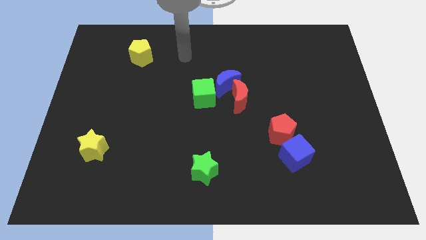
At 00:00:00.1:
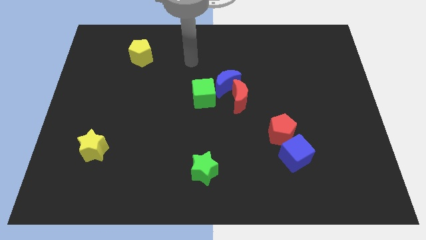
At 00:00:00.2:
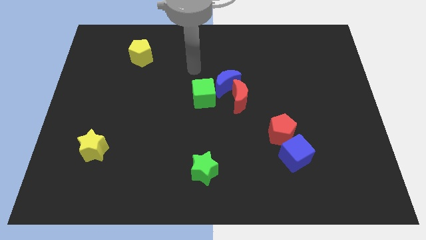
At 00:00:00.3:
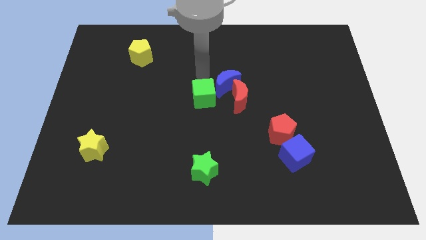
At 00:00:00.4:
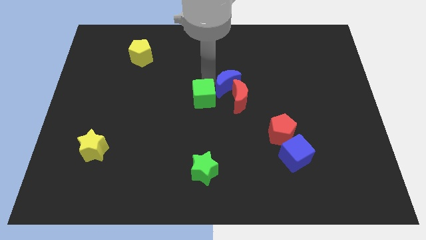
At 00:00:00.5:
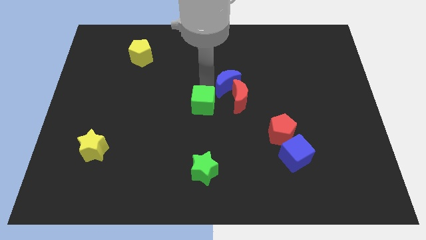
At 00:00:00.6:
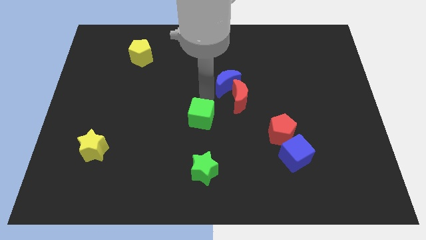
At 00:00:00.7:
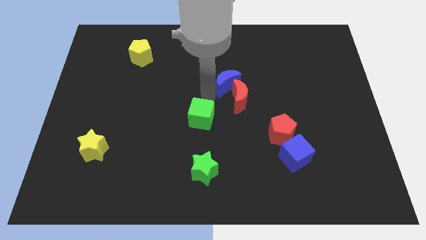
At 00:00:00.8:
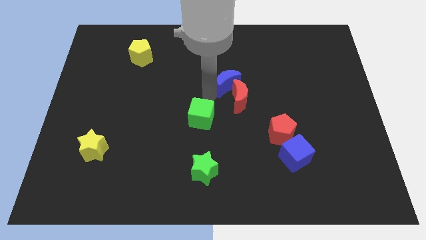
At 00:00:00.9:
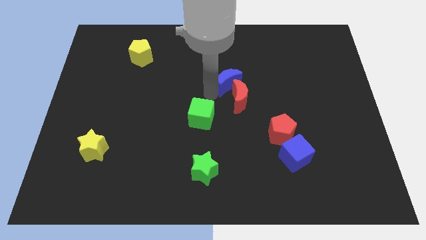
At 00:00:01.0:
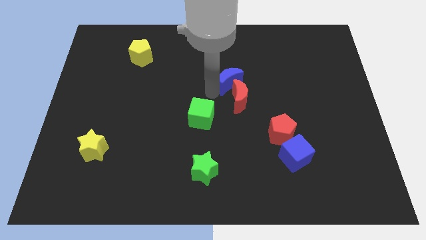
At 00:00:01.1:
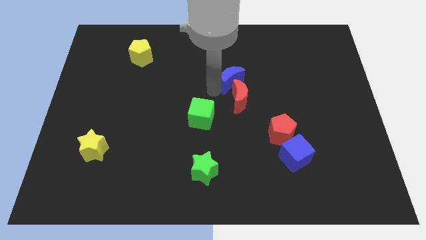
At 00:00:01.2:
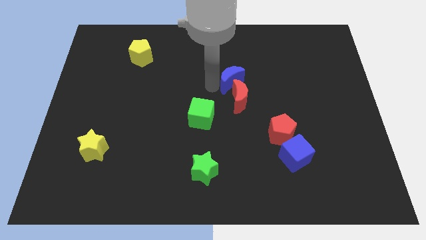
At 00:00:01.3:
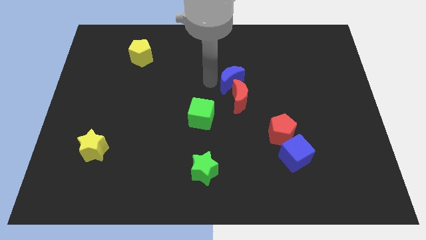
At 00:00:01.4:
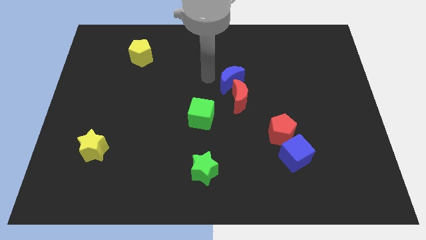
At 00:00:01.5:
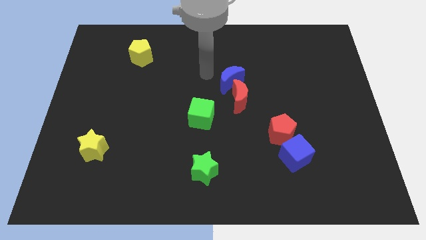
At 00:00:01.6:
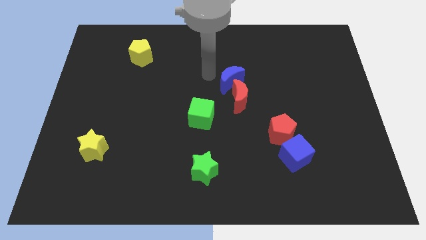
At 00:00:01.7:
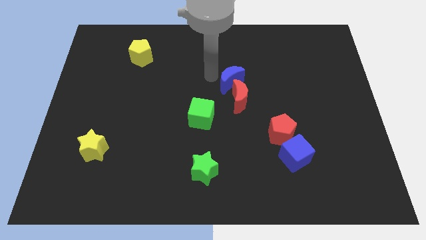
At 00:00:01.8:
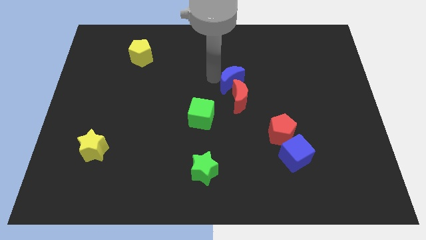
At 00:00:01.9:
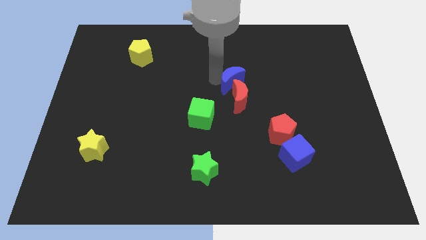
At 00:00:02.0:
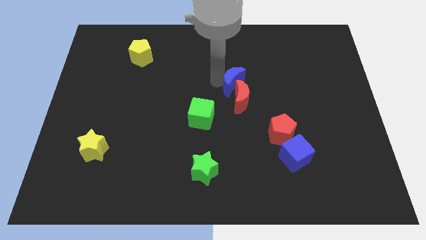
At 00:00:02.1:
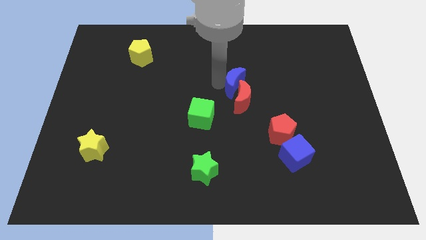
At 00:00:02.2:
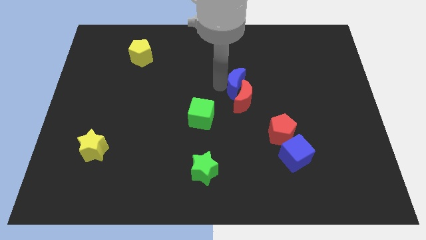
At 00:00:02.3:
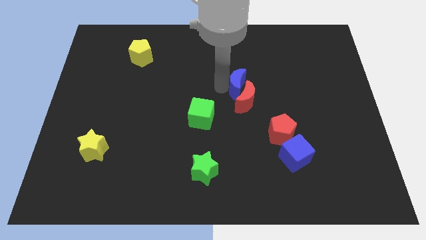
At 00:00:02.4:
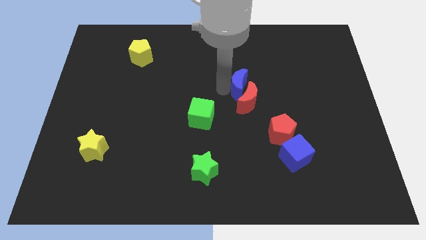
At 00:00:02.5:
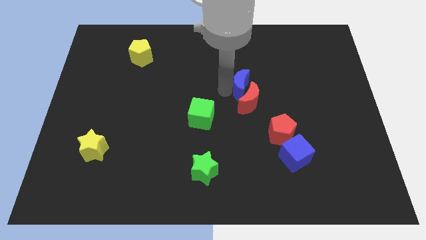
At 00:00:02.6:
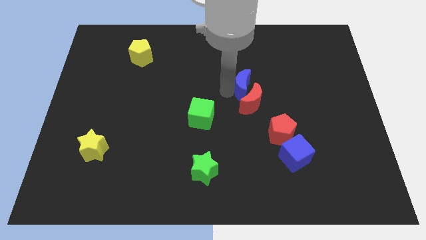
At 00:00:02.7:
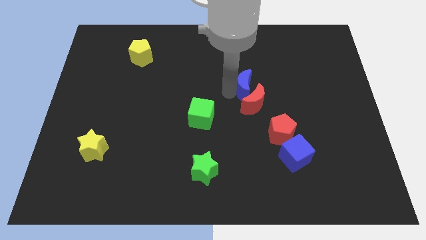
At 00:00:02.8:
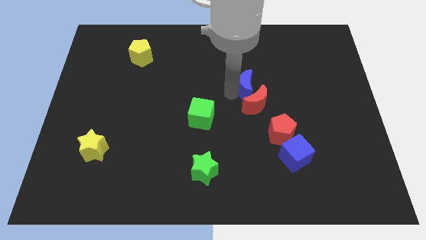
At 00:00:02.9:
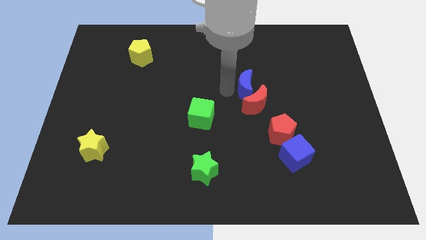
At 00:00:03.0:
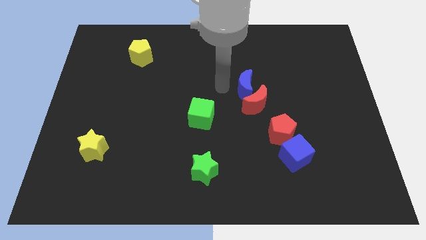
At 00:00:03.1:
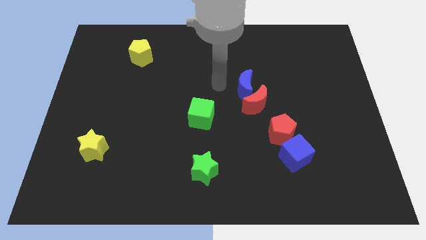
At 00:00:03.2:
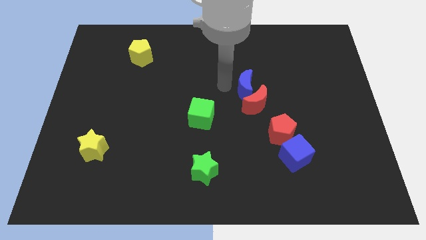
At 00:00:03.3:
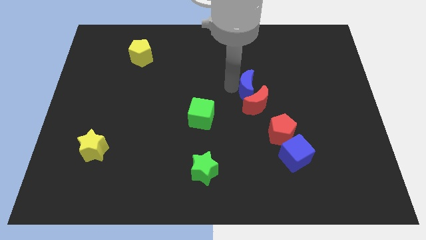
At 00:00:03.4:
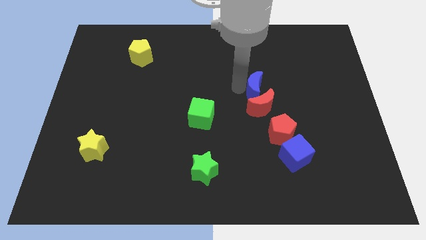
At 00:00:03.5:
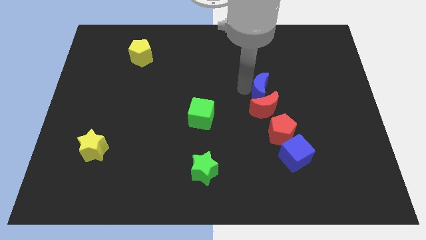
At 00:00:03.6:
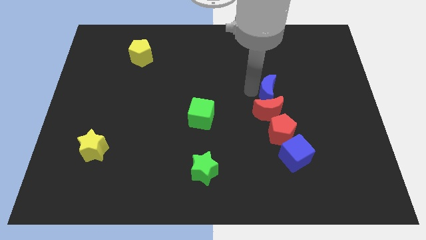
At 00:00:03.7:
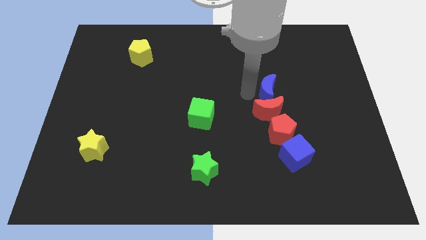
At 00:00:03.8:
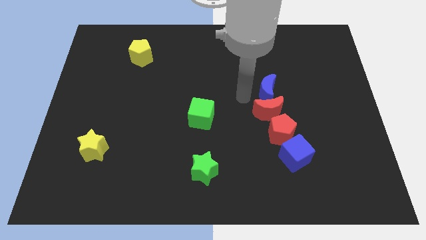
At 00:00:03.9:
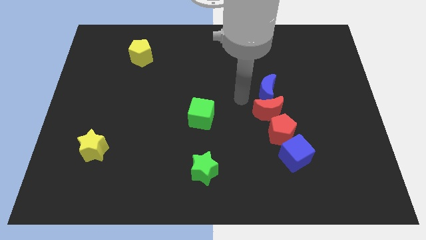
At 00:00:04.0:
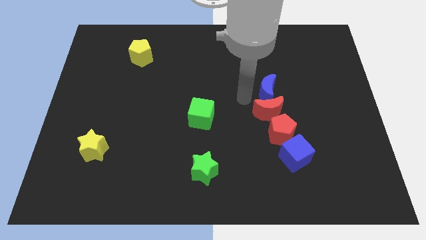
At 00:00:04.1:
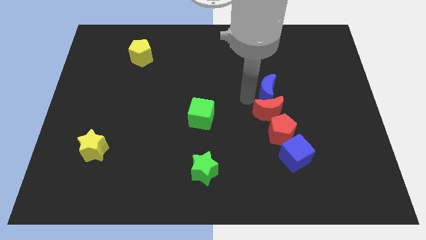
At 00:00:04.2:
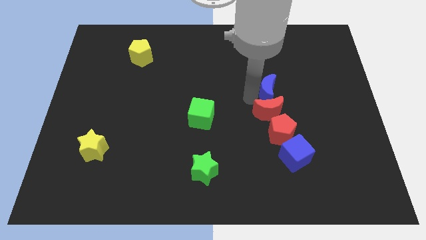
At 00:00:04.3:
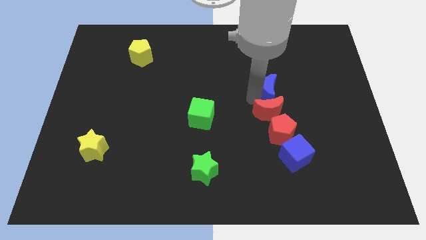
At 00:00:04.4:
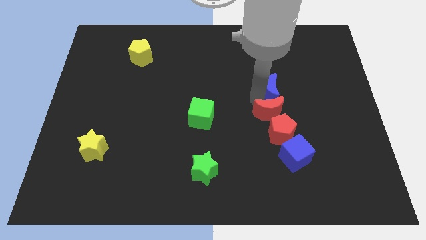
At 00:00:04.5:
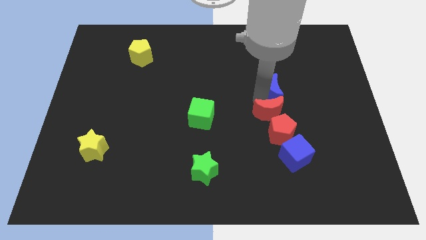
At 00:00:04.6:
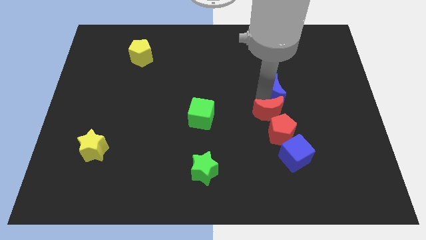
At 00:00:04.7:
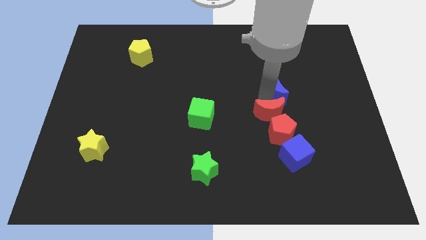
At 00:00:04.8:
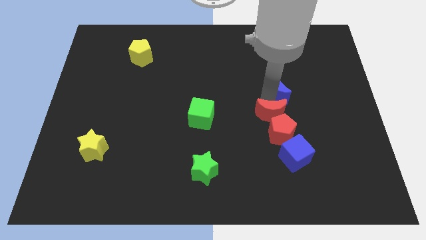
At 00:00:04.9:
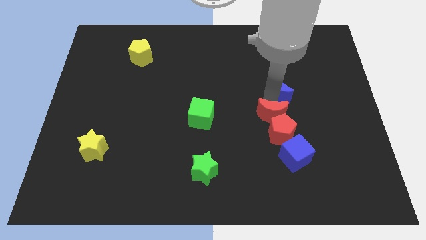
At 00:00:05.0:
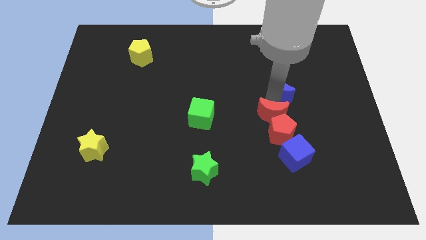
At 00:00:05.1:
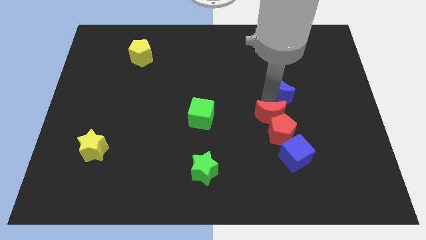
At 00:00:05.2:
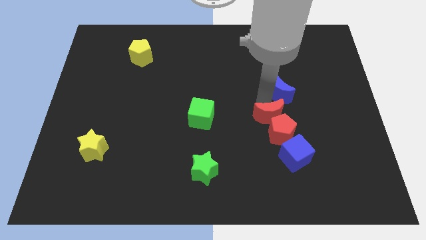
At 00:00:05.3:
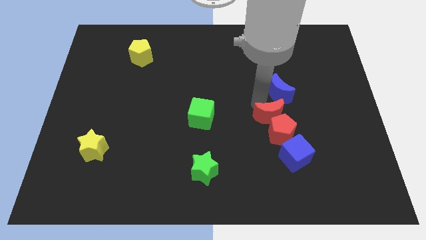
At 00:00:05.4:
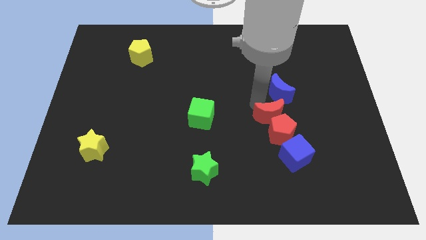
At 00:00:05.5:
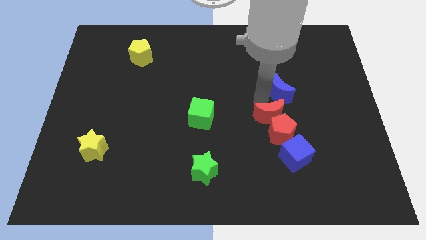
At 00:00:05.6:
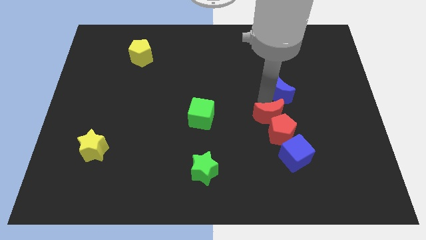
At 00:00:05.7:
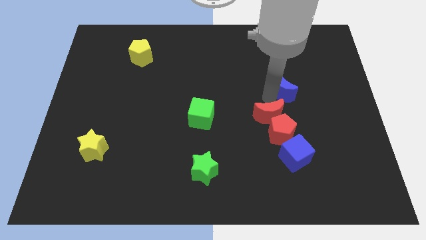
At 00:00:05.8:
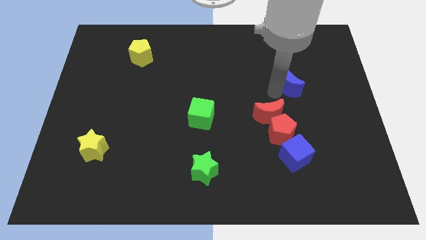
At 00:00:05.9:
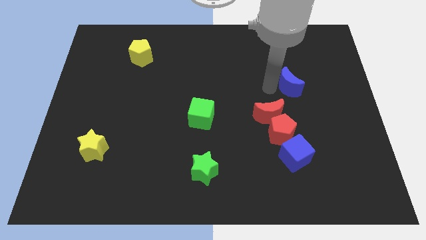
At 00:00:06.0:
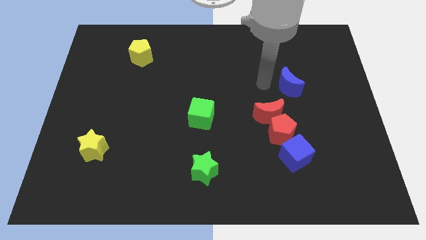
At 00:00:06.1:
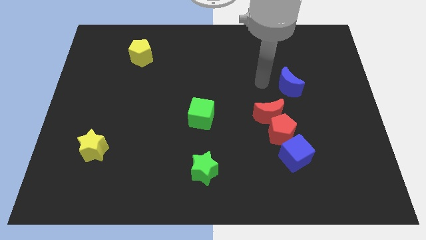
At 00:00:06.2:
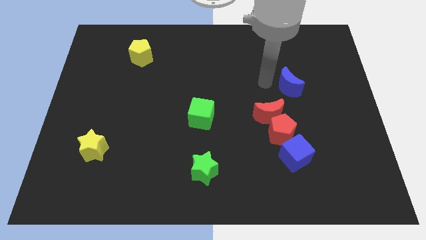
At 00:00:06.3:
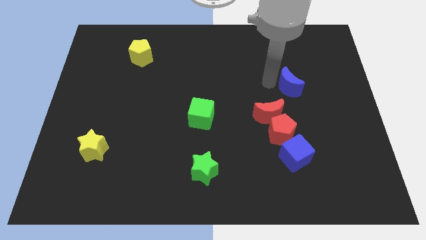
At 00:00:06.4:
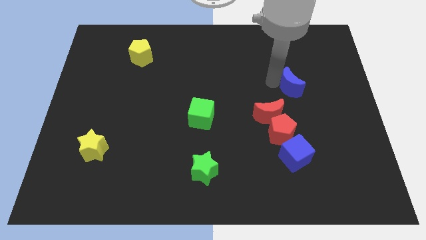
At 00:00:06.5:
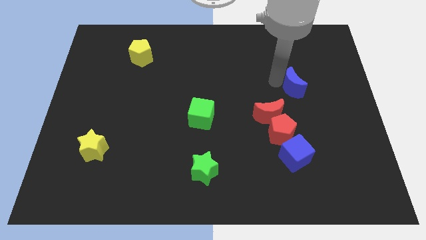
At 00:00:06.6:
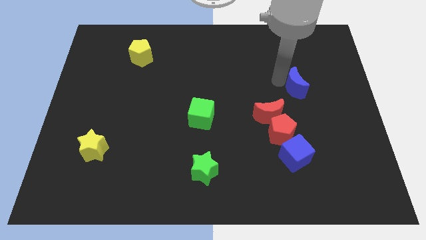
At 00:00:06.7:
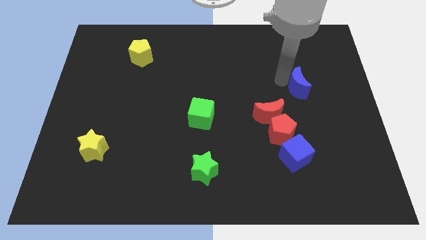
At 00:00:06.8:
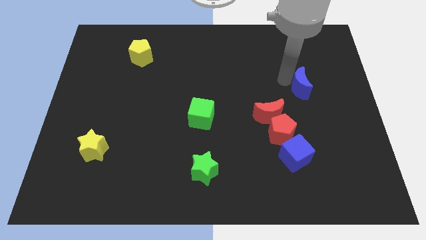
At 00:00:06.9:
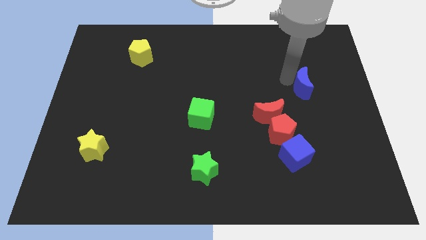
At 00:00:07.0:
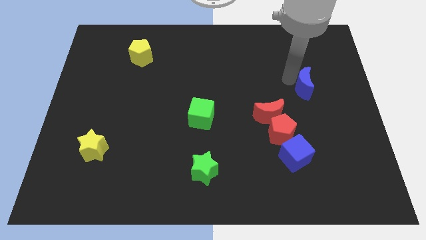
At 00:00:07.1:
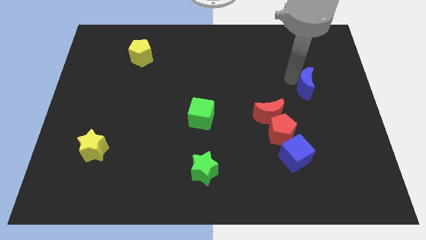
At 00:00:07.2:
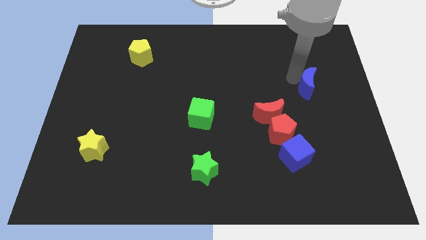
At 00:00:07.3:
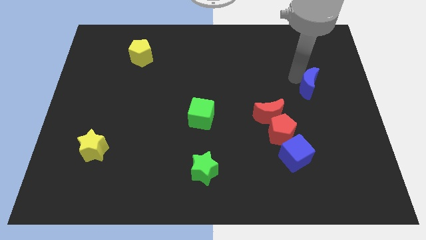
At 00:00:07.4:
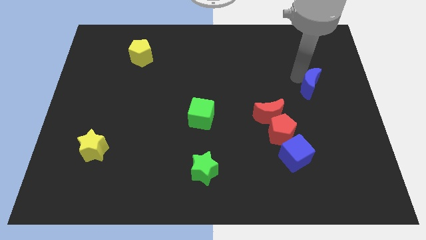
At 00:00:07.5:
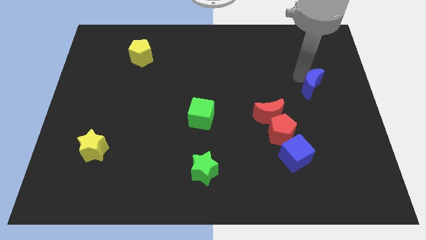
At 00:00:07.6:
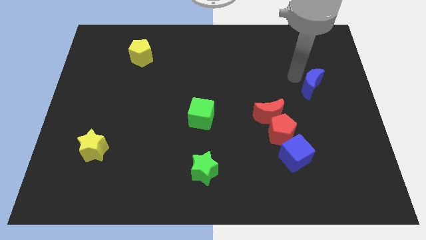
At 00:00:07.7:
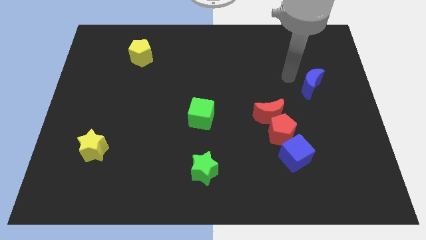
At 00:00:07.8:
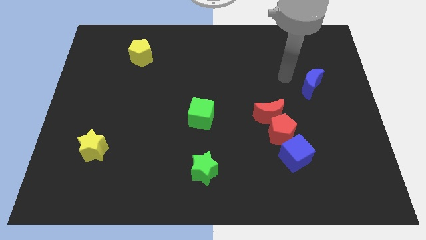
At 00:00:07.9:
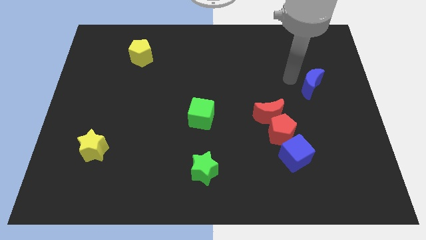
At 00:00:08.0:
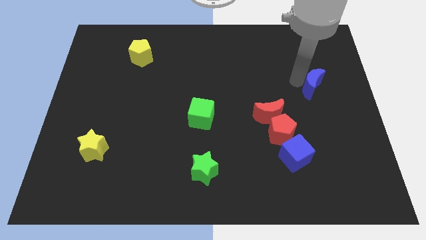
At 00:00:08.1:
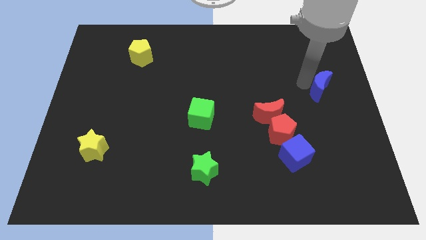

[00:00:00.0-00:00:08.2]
move the blue moon to the right side of the board
